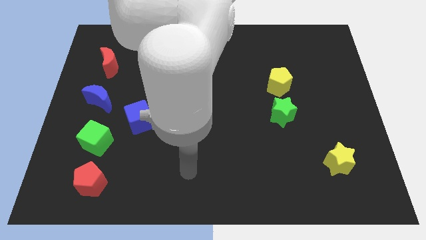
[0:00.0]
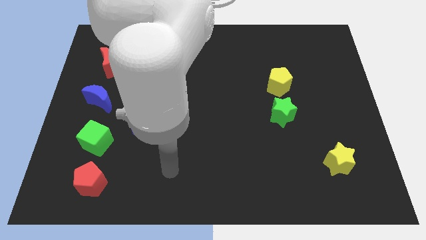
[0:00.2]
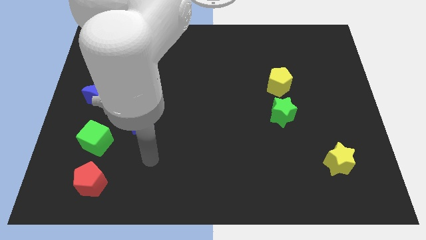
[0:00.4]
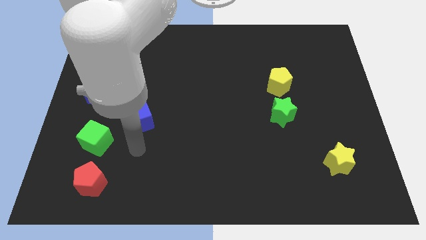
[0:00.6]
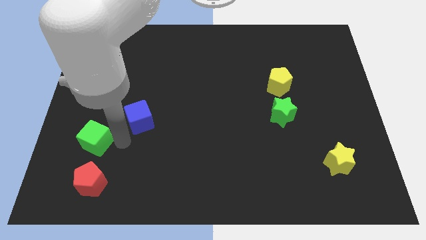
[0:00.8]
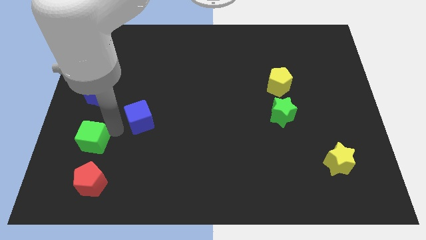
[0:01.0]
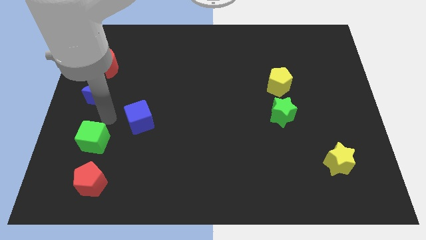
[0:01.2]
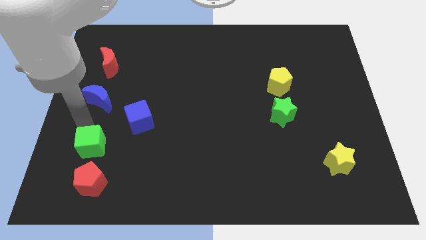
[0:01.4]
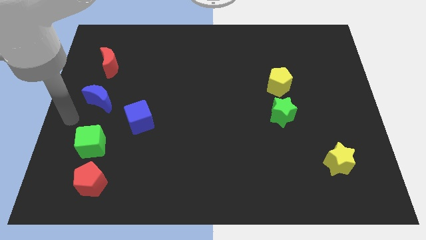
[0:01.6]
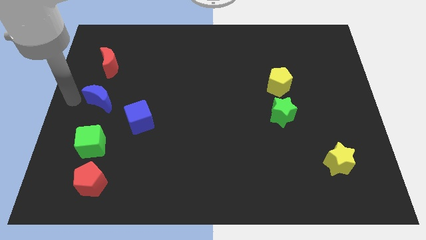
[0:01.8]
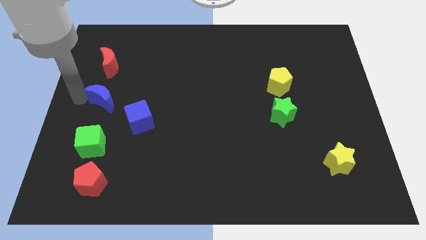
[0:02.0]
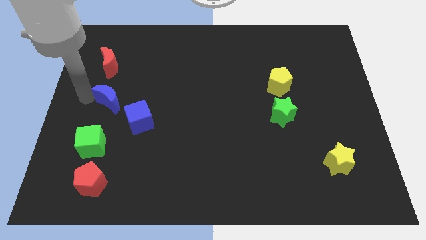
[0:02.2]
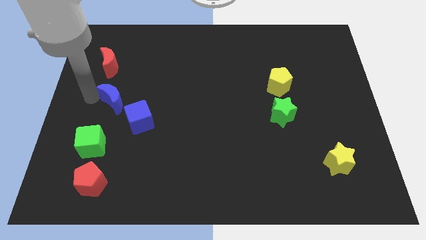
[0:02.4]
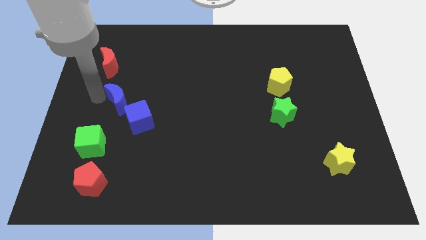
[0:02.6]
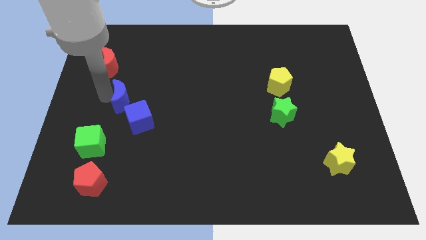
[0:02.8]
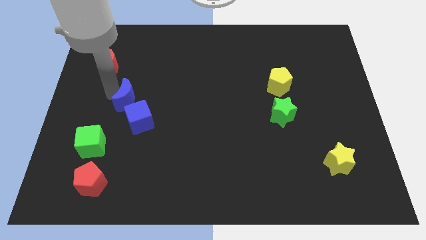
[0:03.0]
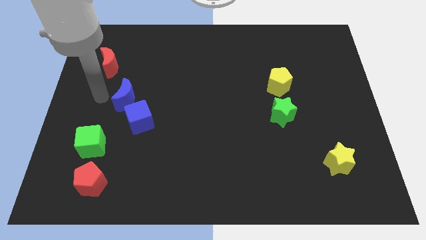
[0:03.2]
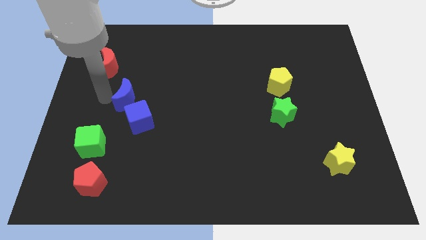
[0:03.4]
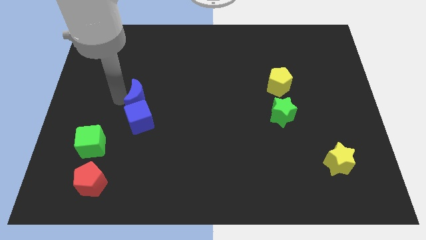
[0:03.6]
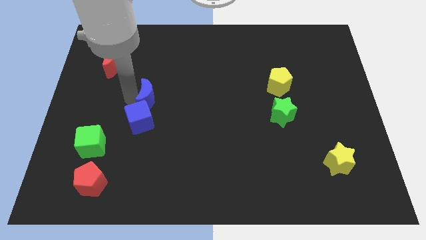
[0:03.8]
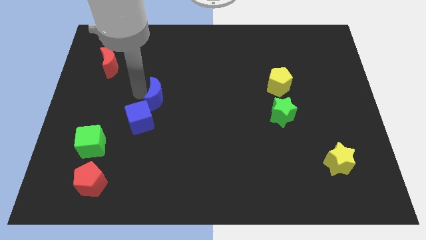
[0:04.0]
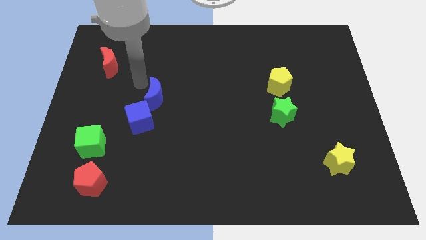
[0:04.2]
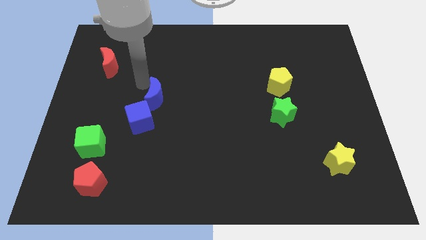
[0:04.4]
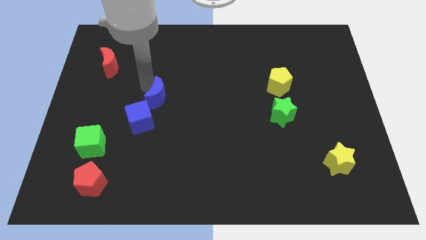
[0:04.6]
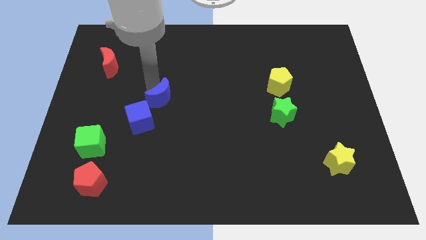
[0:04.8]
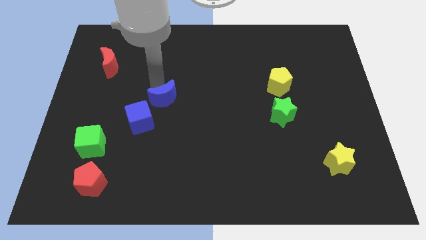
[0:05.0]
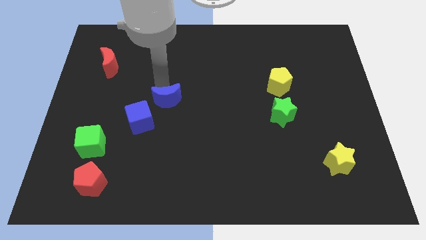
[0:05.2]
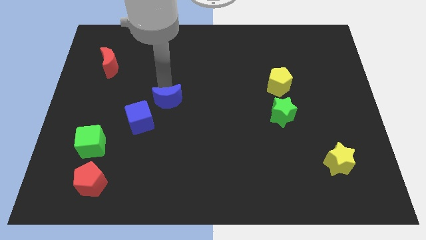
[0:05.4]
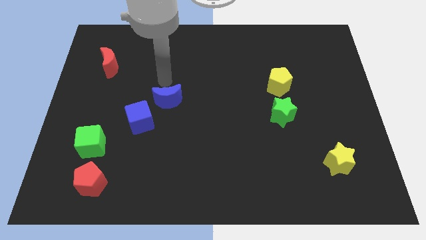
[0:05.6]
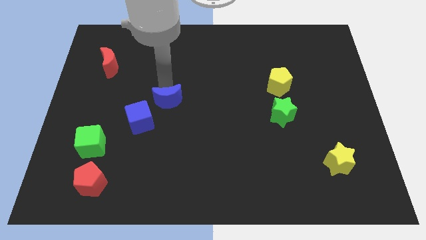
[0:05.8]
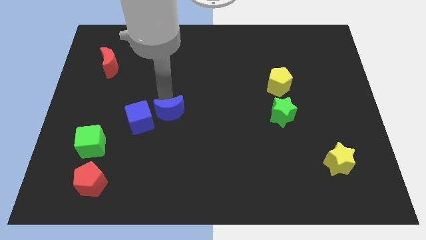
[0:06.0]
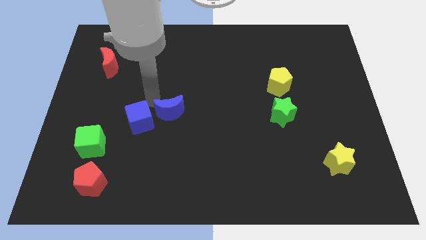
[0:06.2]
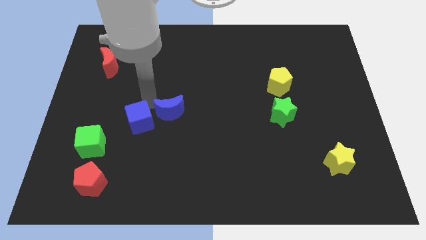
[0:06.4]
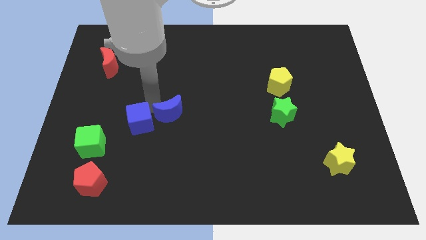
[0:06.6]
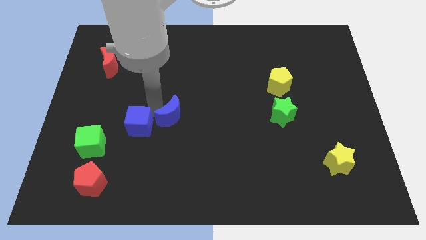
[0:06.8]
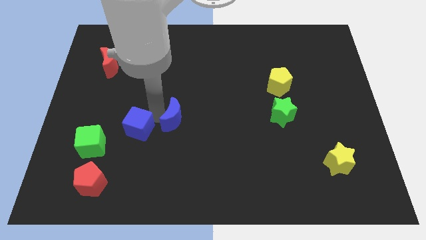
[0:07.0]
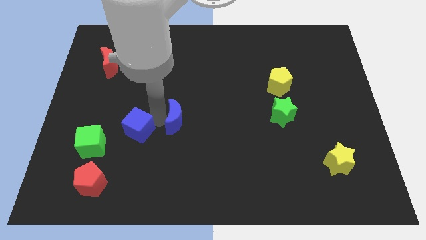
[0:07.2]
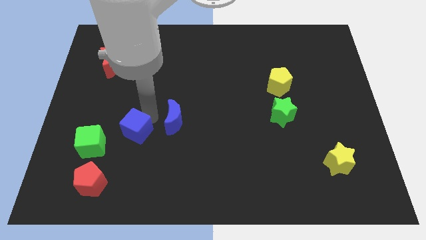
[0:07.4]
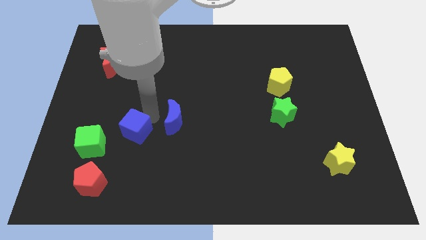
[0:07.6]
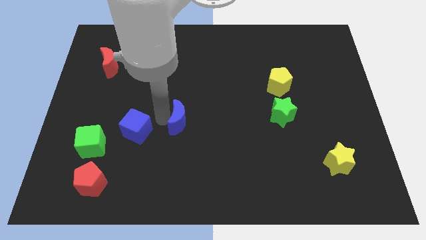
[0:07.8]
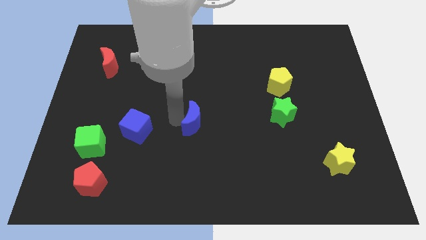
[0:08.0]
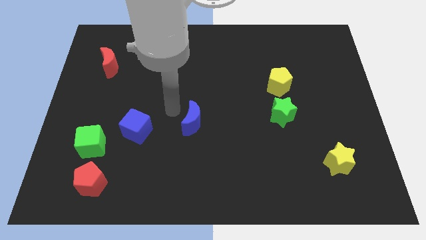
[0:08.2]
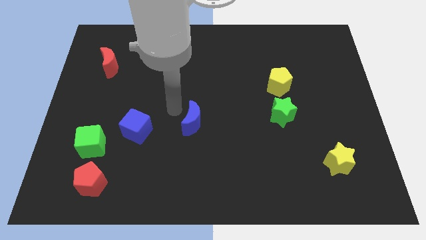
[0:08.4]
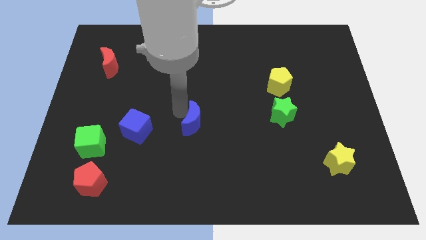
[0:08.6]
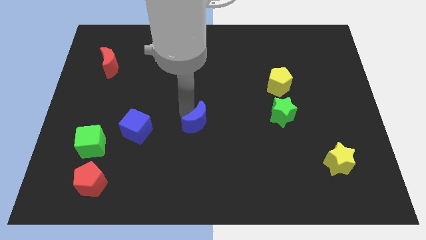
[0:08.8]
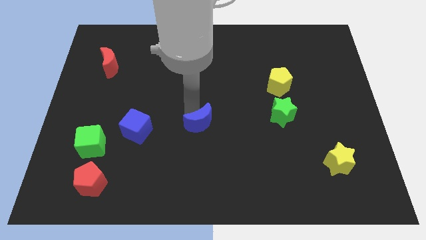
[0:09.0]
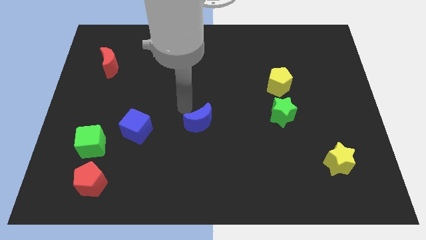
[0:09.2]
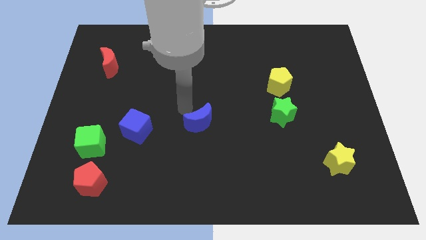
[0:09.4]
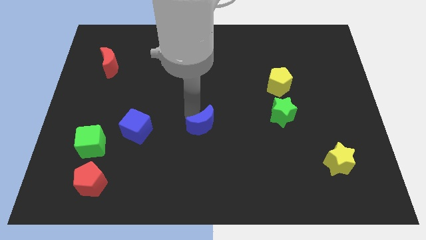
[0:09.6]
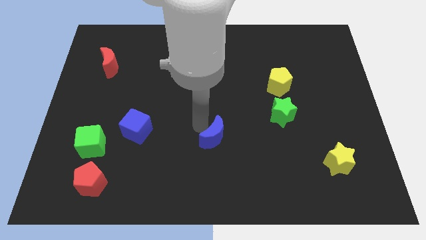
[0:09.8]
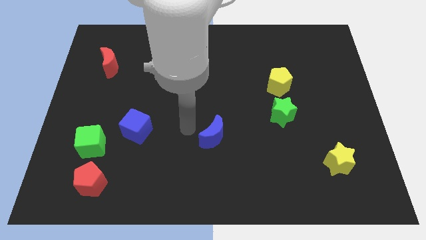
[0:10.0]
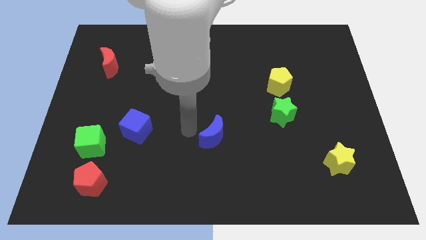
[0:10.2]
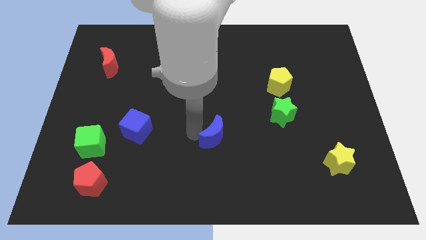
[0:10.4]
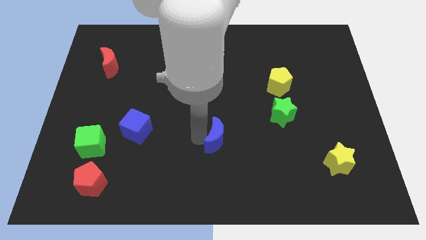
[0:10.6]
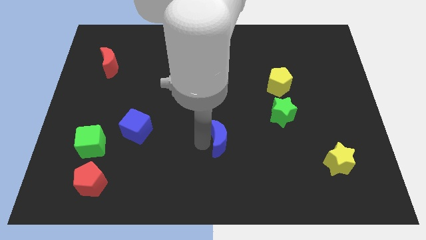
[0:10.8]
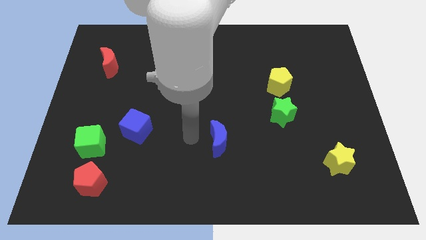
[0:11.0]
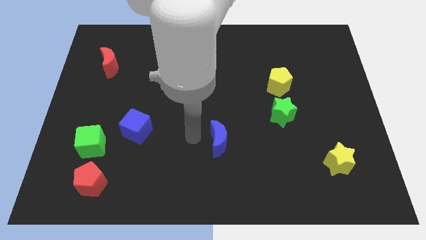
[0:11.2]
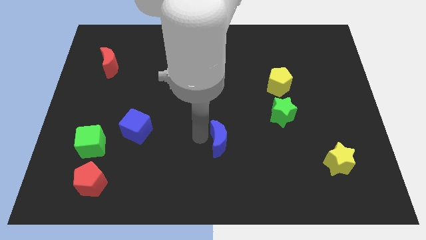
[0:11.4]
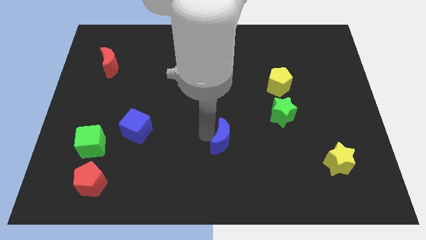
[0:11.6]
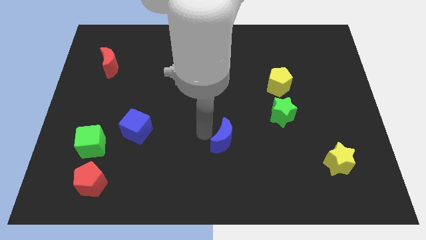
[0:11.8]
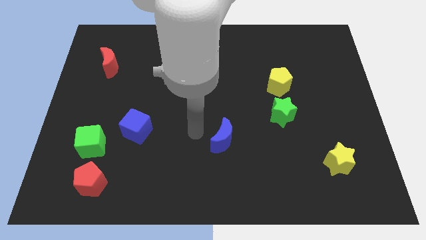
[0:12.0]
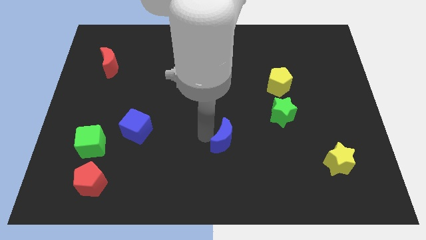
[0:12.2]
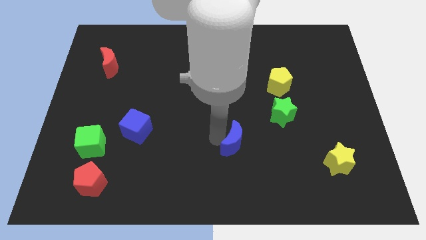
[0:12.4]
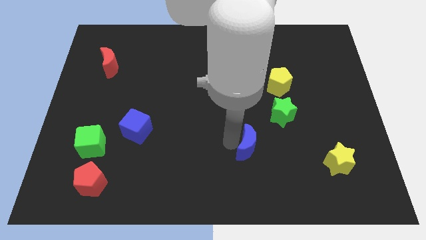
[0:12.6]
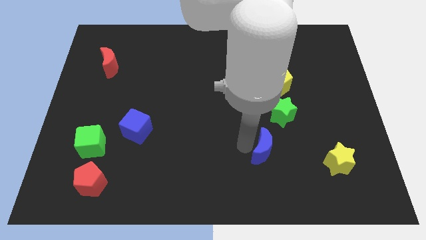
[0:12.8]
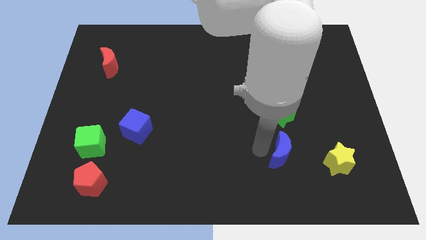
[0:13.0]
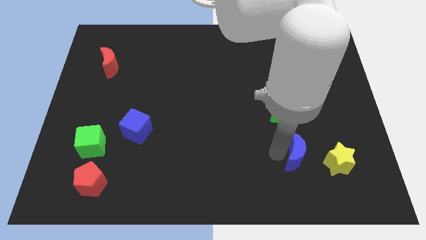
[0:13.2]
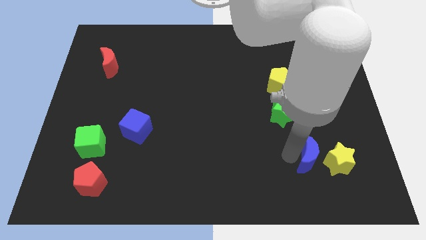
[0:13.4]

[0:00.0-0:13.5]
move the blue moon towards the yellow star
